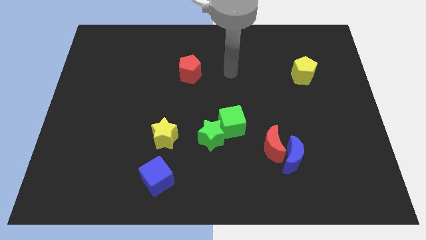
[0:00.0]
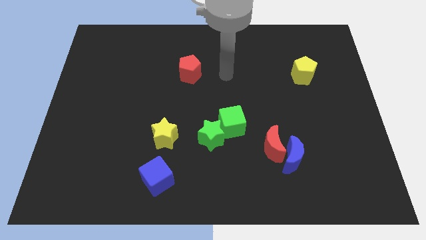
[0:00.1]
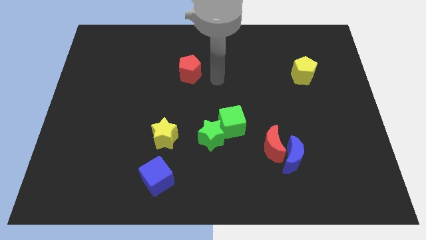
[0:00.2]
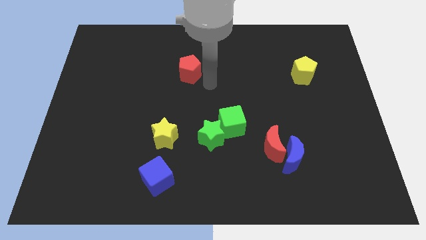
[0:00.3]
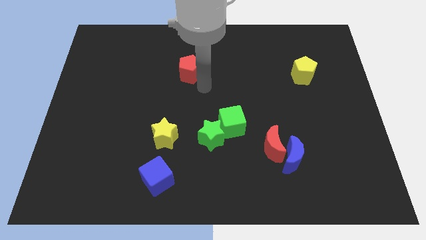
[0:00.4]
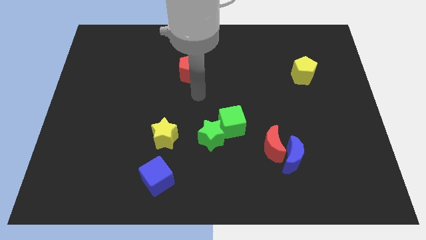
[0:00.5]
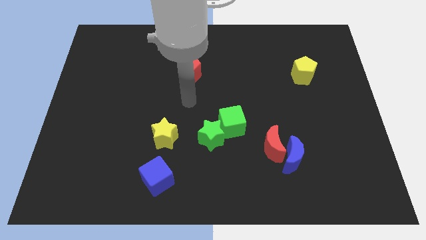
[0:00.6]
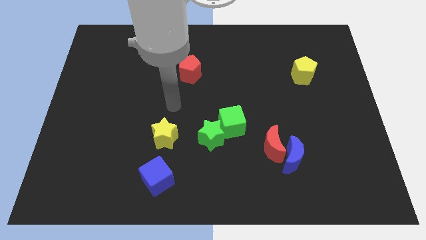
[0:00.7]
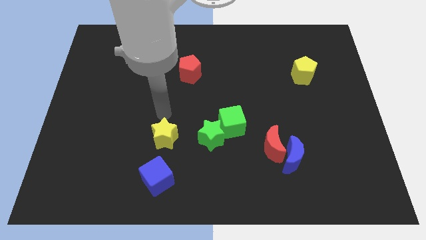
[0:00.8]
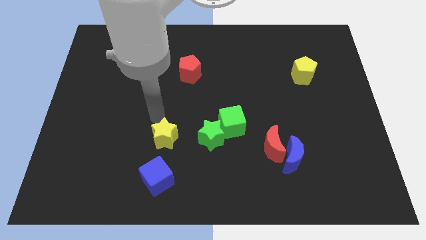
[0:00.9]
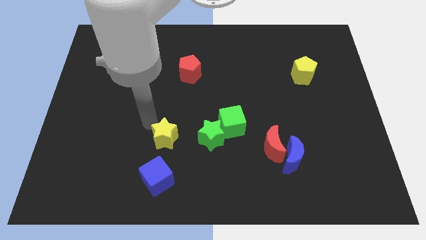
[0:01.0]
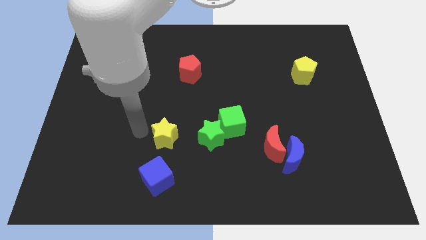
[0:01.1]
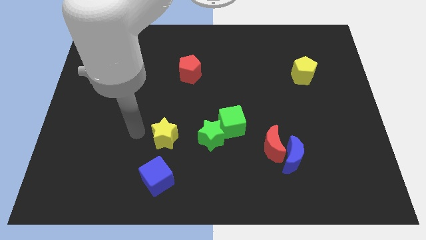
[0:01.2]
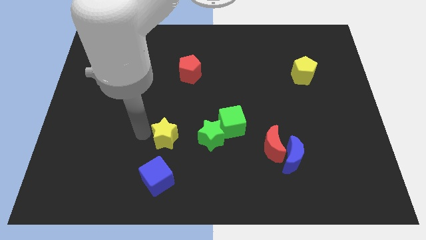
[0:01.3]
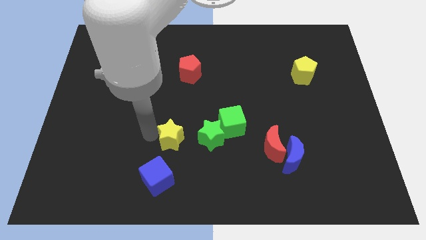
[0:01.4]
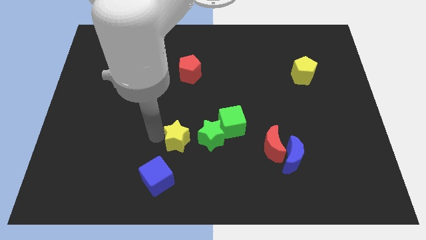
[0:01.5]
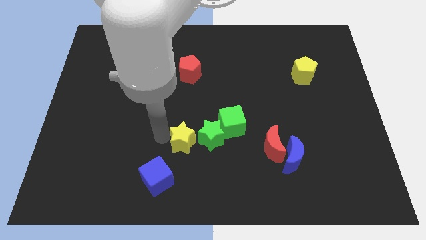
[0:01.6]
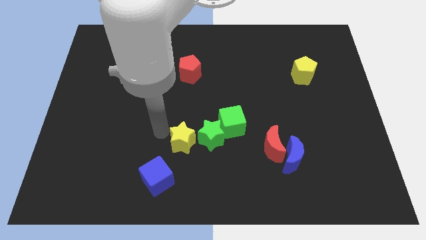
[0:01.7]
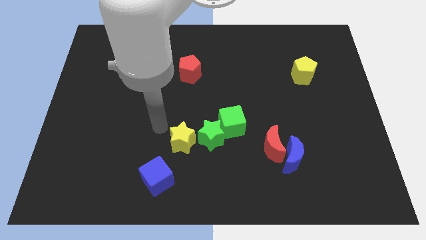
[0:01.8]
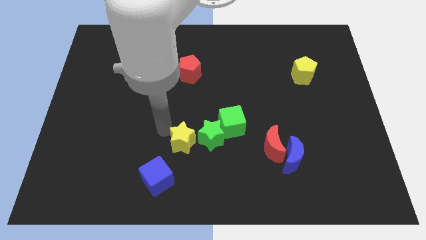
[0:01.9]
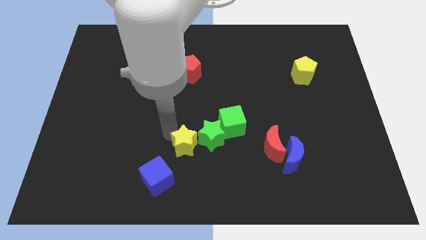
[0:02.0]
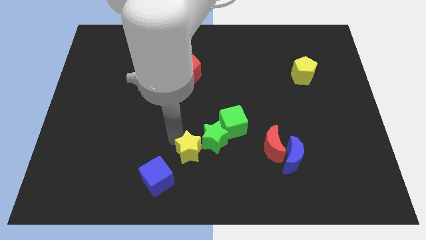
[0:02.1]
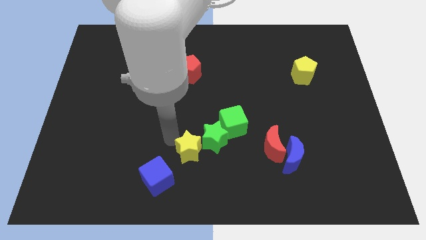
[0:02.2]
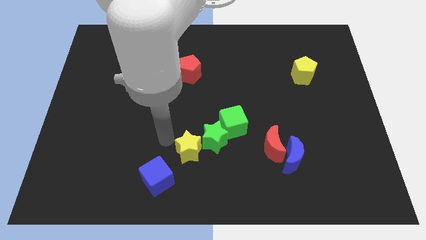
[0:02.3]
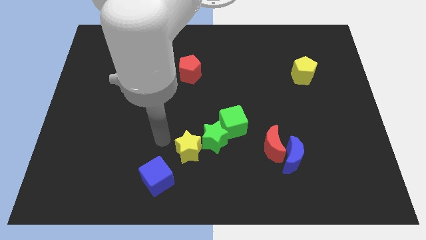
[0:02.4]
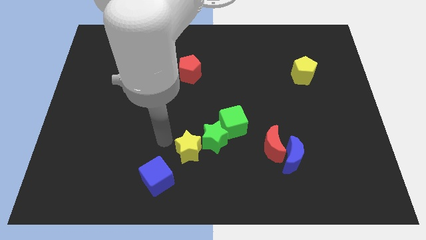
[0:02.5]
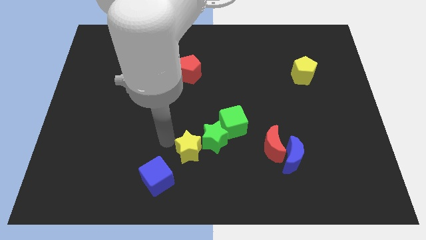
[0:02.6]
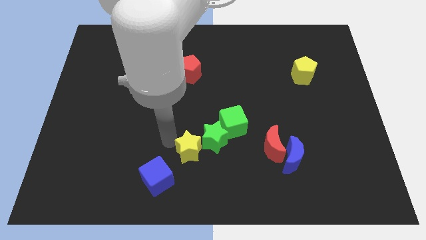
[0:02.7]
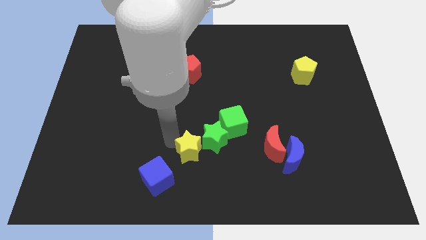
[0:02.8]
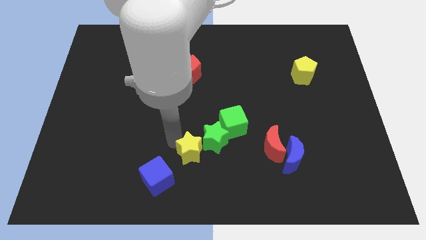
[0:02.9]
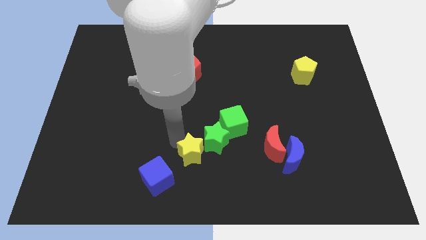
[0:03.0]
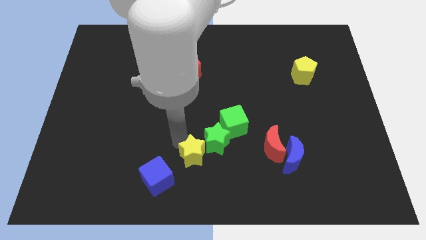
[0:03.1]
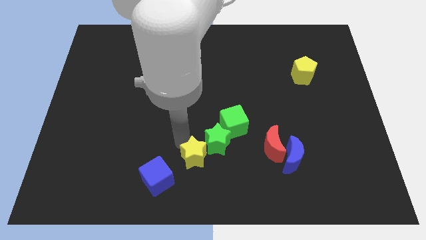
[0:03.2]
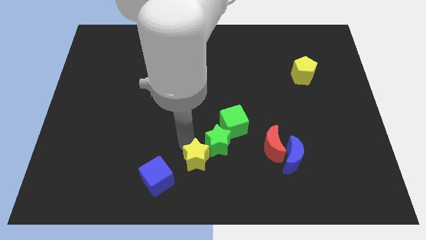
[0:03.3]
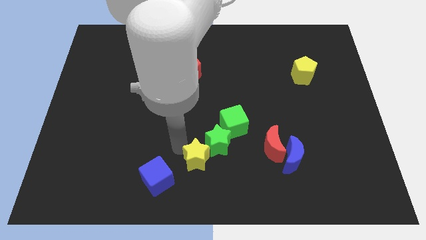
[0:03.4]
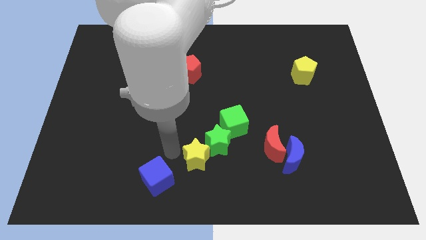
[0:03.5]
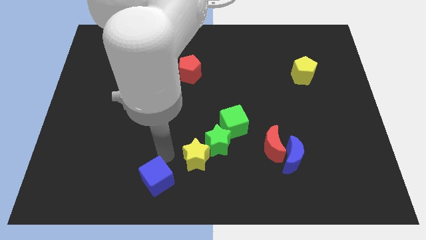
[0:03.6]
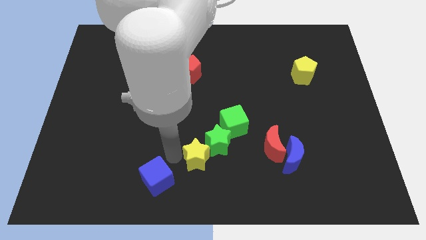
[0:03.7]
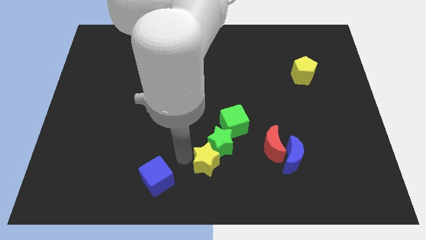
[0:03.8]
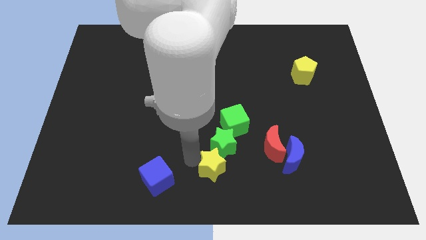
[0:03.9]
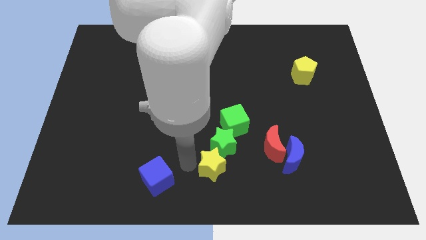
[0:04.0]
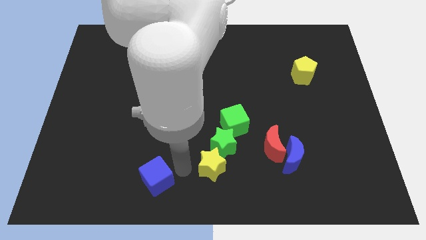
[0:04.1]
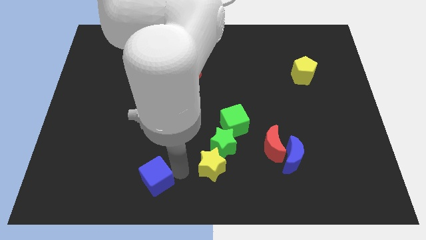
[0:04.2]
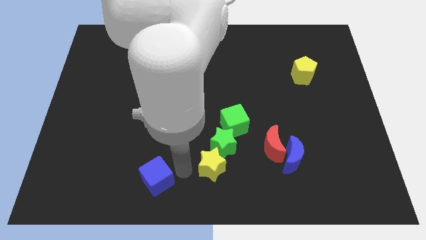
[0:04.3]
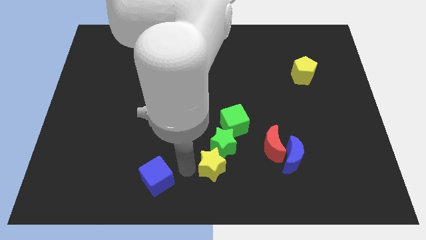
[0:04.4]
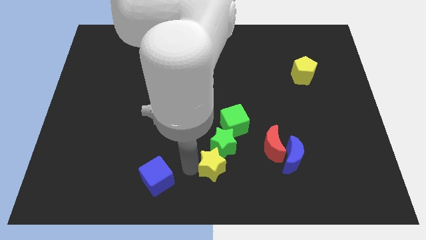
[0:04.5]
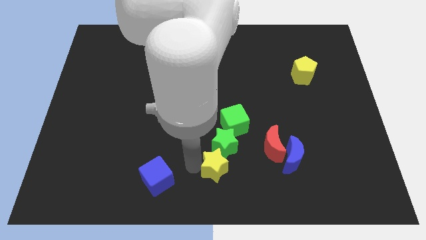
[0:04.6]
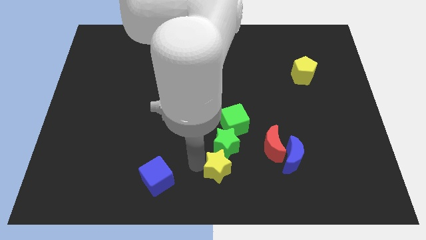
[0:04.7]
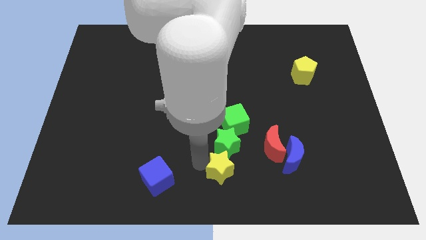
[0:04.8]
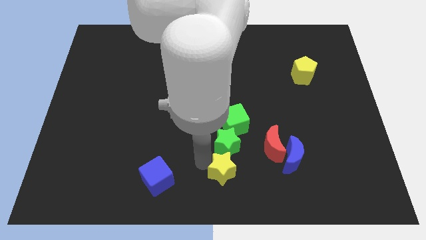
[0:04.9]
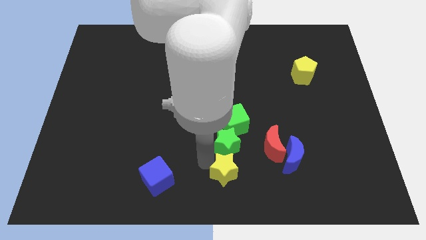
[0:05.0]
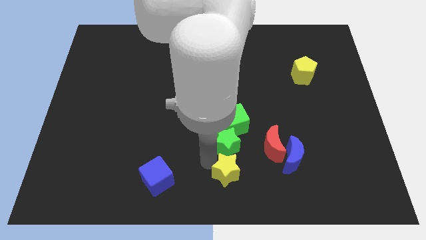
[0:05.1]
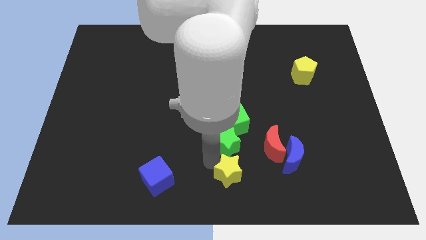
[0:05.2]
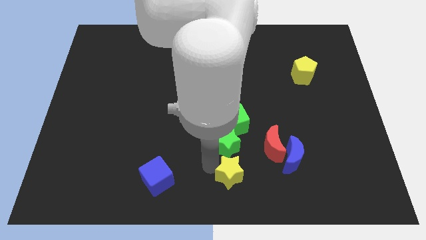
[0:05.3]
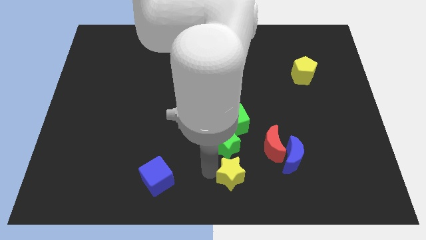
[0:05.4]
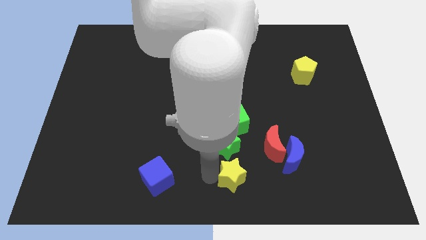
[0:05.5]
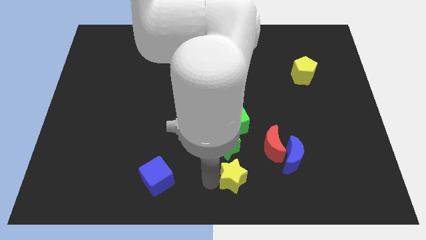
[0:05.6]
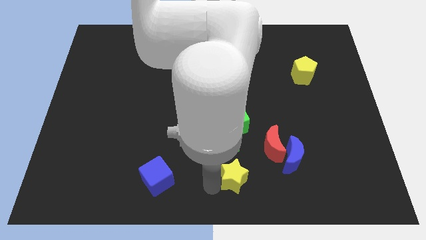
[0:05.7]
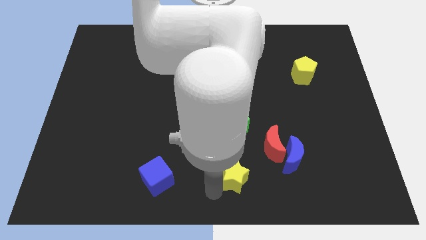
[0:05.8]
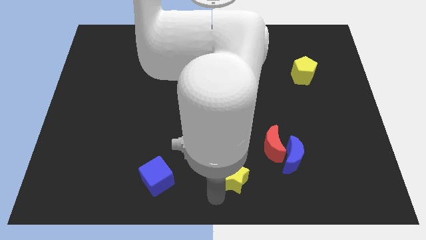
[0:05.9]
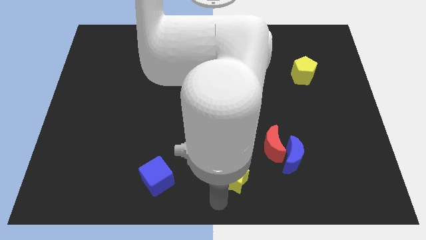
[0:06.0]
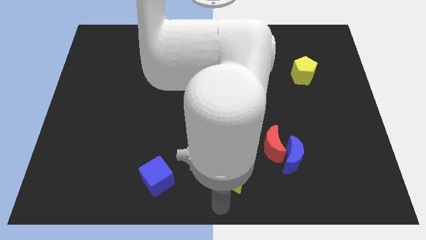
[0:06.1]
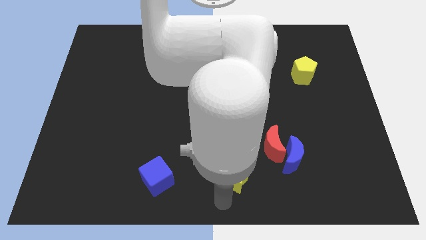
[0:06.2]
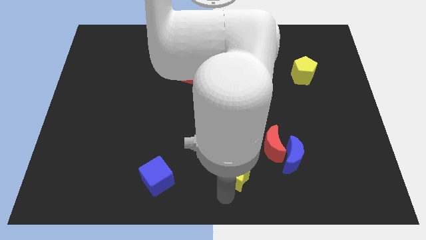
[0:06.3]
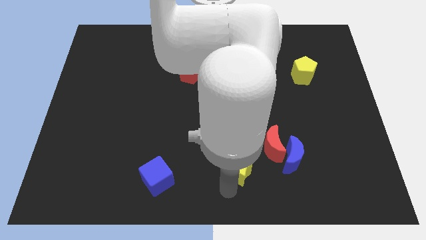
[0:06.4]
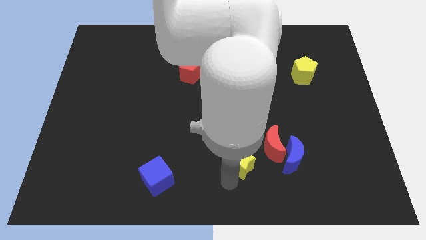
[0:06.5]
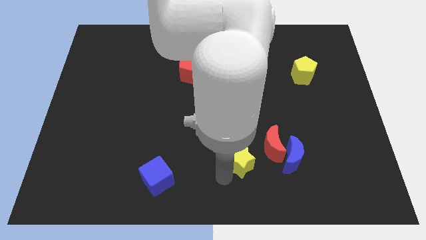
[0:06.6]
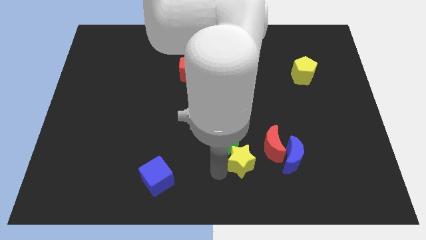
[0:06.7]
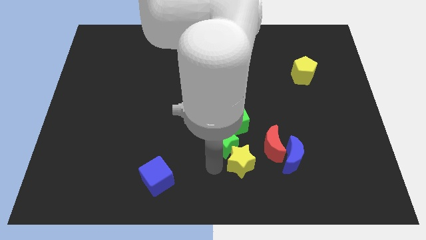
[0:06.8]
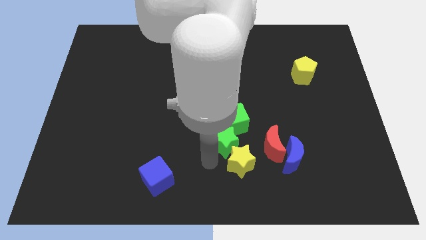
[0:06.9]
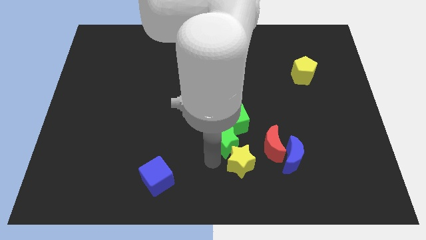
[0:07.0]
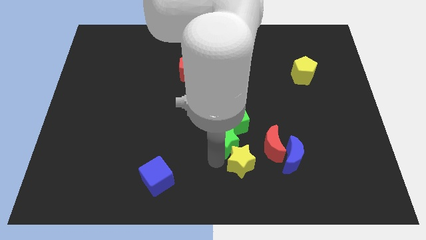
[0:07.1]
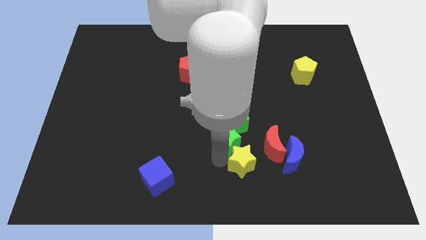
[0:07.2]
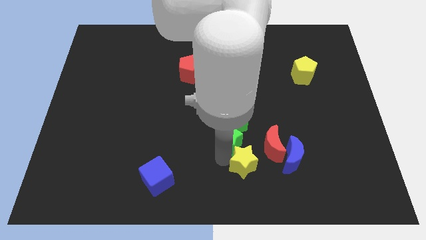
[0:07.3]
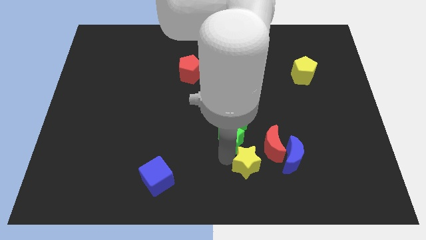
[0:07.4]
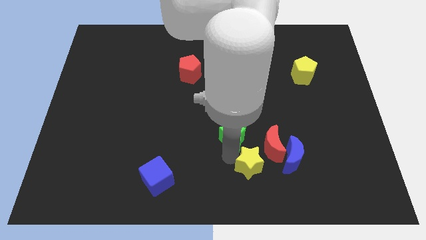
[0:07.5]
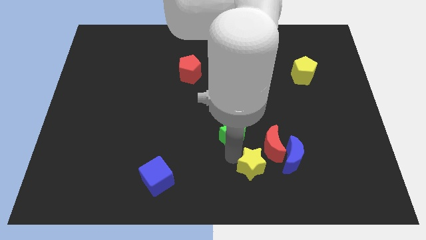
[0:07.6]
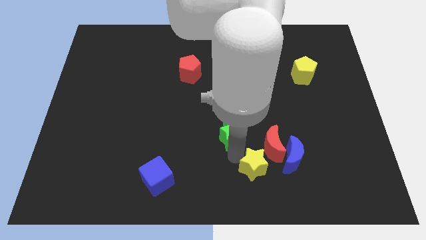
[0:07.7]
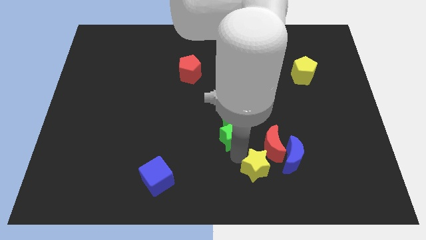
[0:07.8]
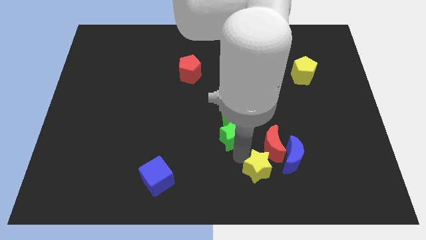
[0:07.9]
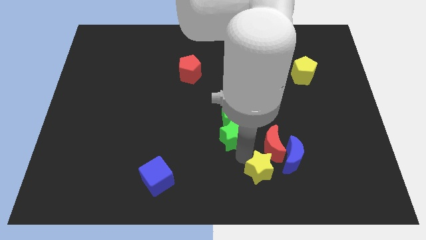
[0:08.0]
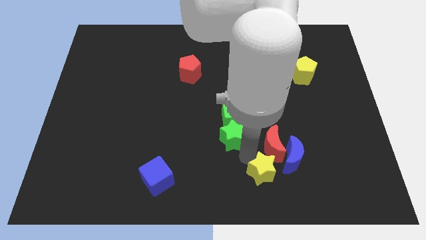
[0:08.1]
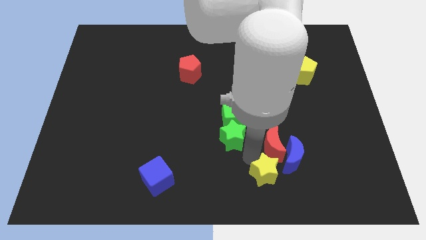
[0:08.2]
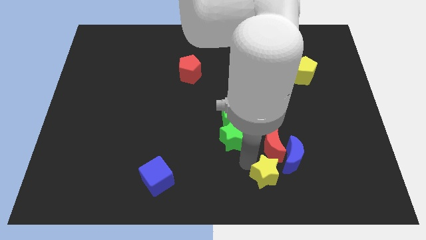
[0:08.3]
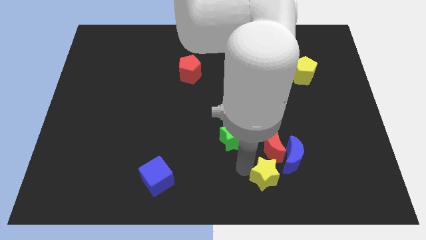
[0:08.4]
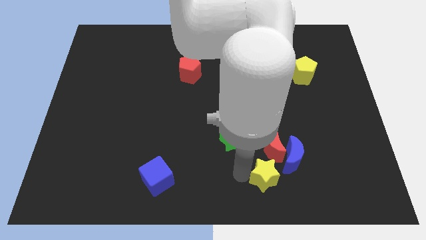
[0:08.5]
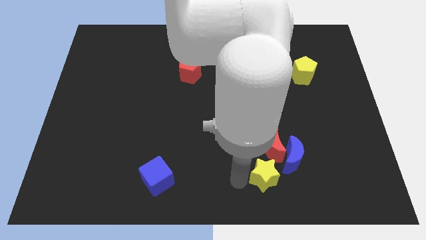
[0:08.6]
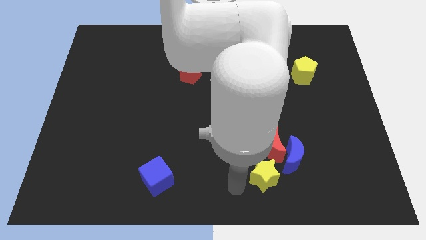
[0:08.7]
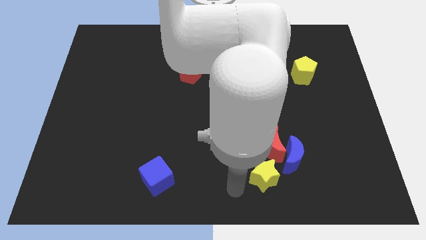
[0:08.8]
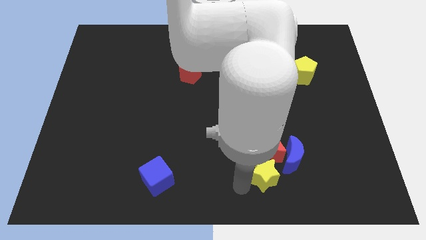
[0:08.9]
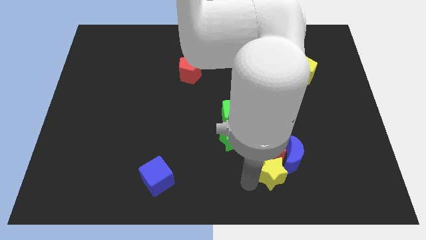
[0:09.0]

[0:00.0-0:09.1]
put the yellow star to the blue moon
